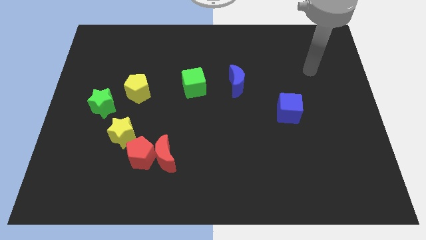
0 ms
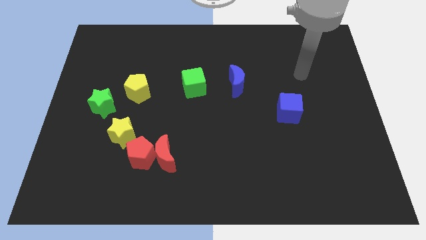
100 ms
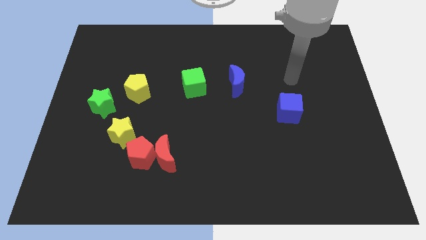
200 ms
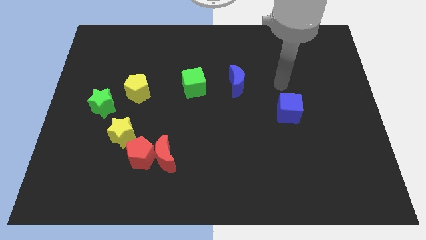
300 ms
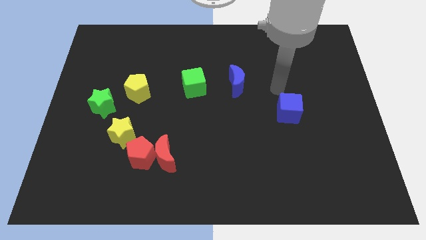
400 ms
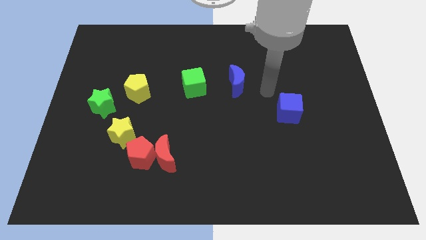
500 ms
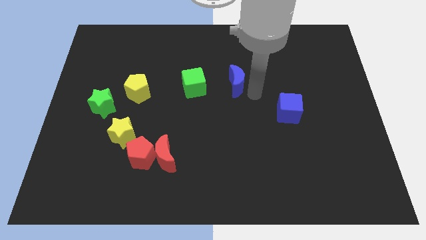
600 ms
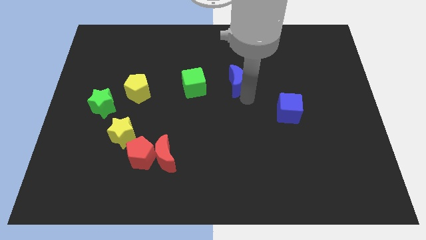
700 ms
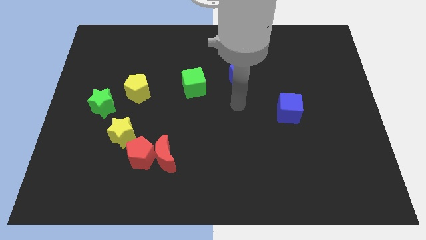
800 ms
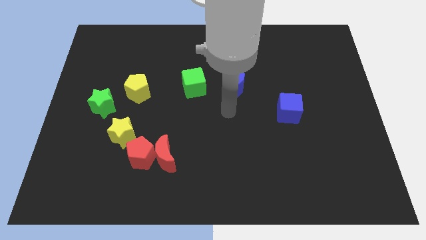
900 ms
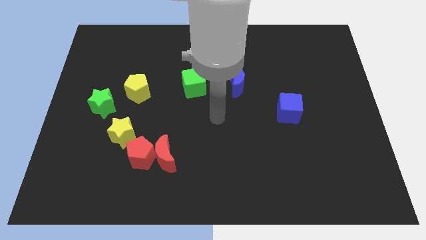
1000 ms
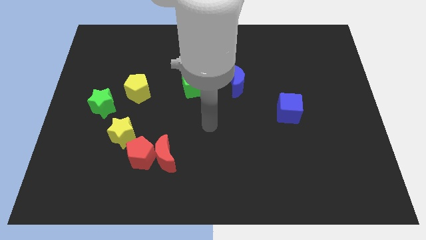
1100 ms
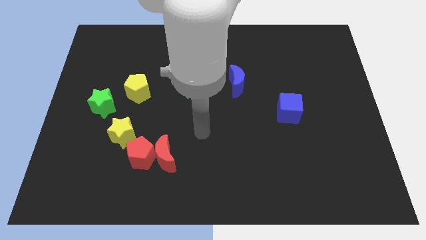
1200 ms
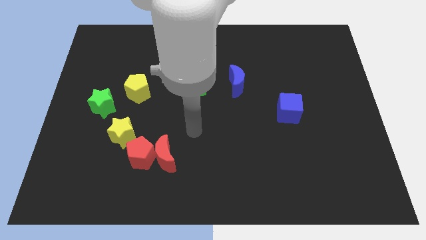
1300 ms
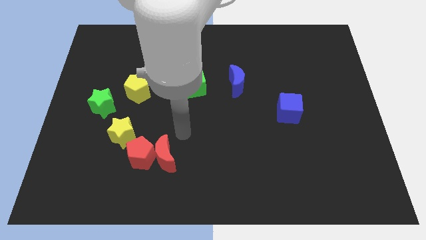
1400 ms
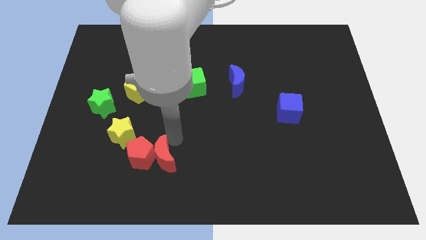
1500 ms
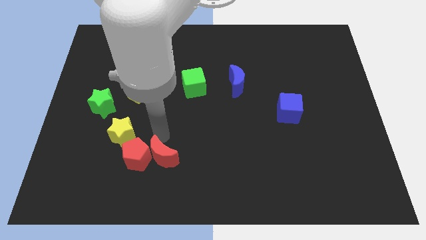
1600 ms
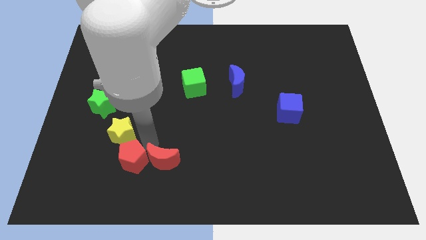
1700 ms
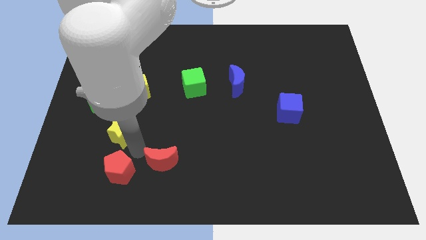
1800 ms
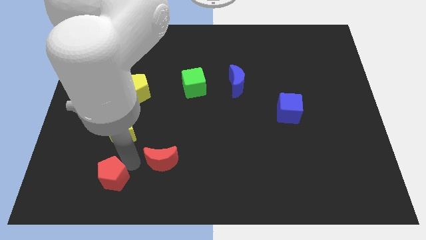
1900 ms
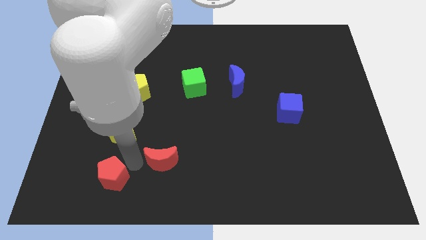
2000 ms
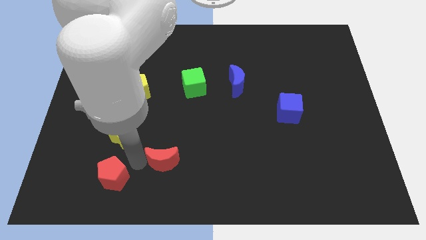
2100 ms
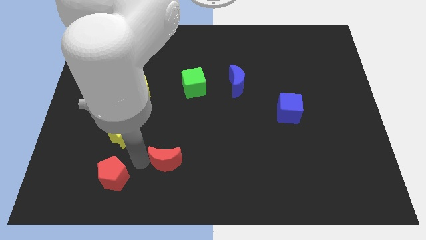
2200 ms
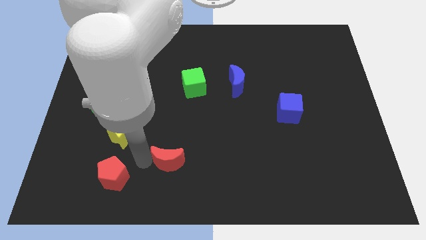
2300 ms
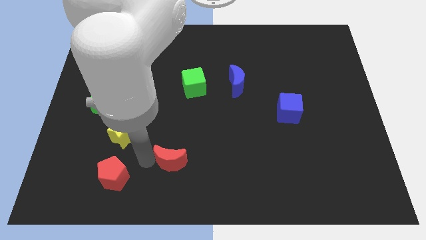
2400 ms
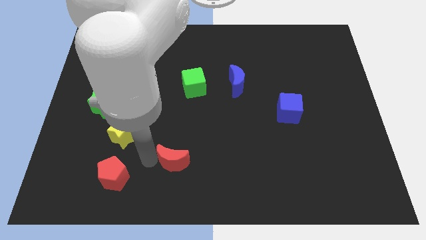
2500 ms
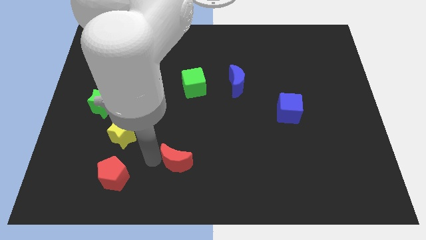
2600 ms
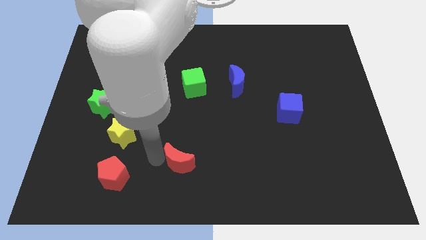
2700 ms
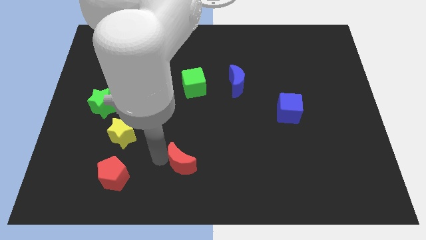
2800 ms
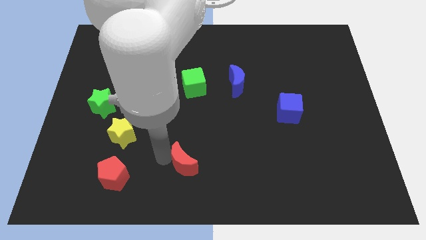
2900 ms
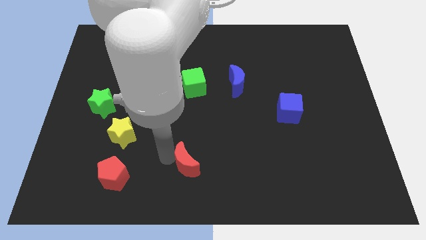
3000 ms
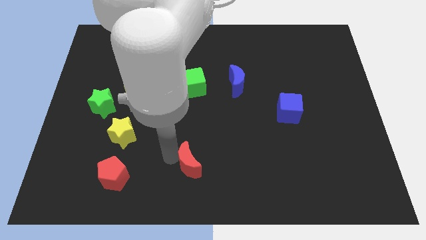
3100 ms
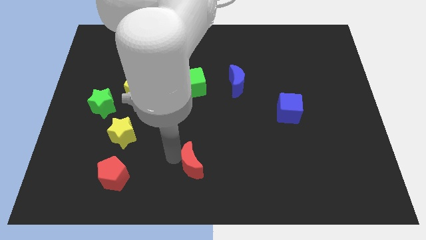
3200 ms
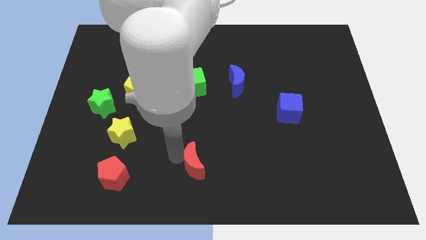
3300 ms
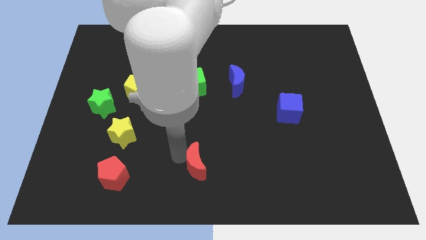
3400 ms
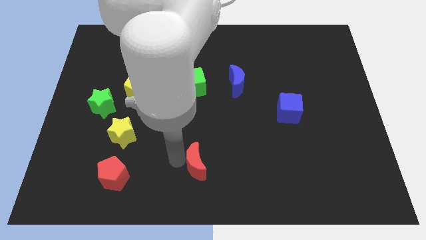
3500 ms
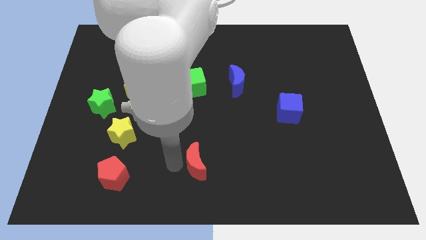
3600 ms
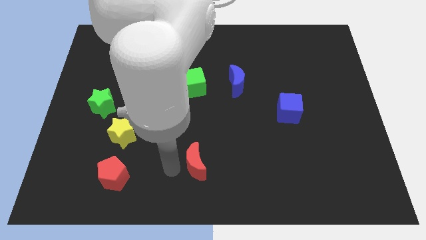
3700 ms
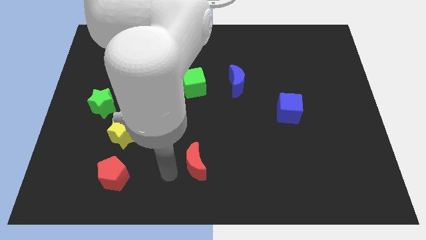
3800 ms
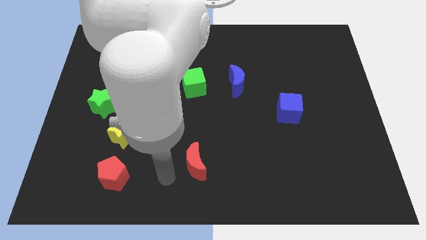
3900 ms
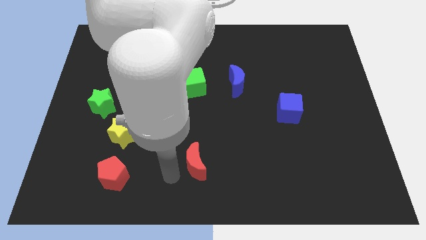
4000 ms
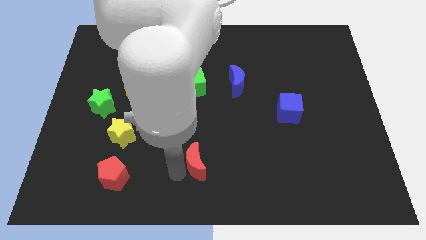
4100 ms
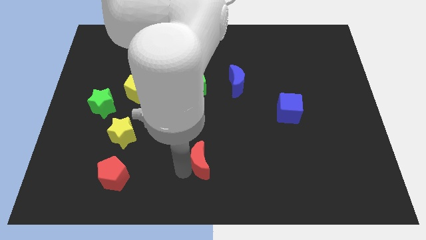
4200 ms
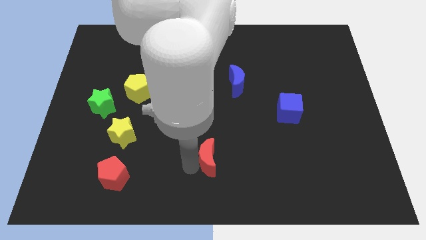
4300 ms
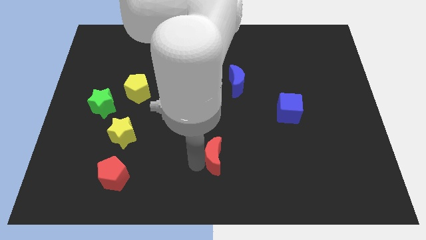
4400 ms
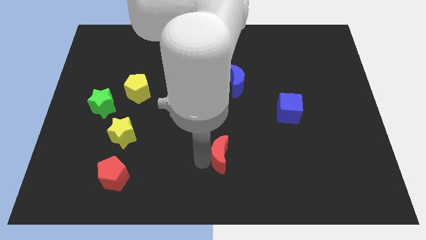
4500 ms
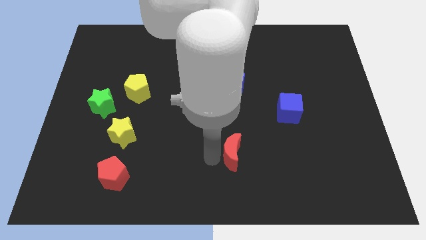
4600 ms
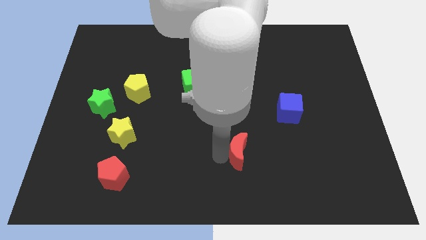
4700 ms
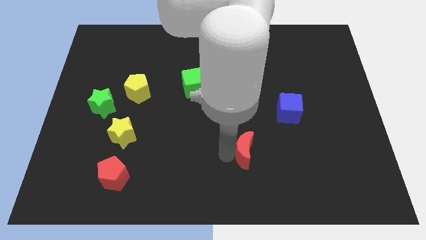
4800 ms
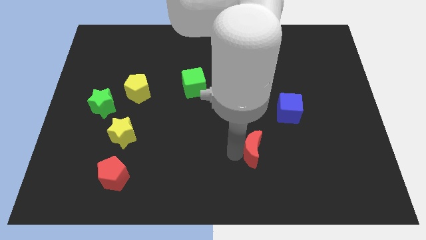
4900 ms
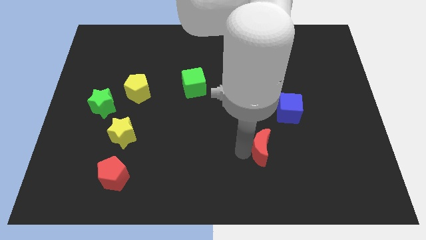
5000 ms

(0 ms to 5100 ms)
push the red moon to the right

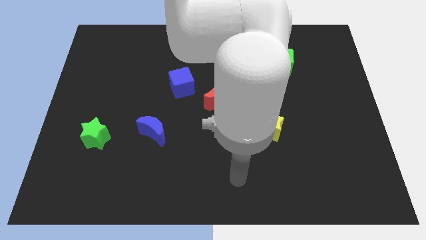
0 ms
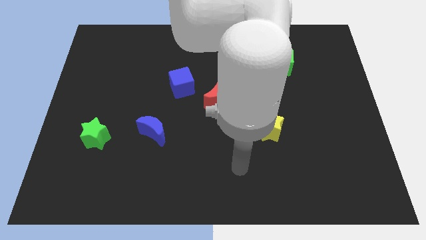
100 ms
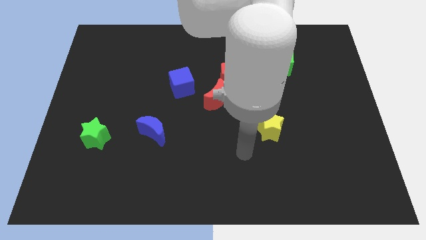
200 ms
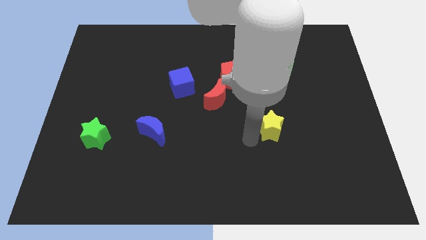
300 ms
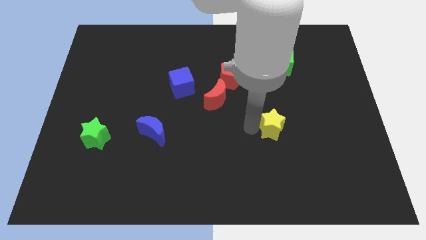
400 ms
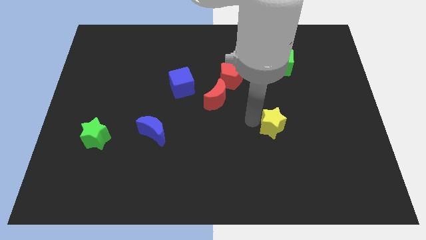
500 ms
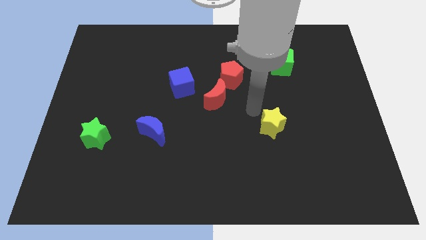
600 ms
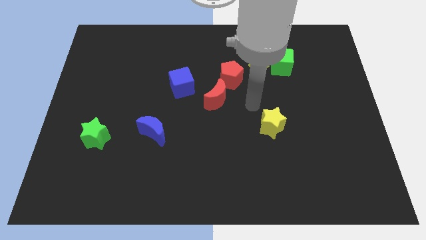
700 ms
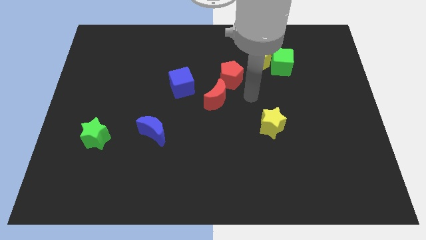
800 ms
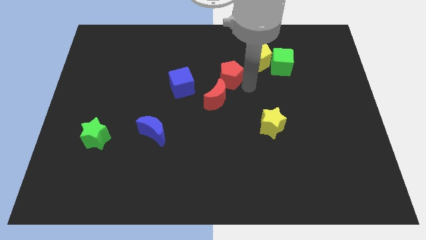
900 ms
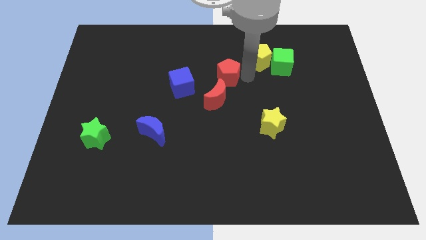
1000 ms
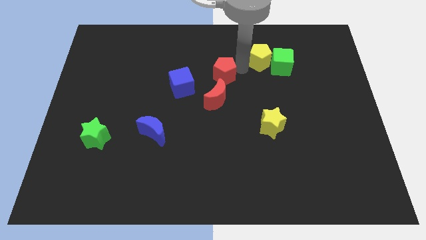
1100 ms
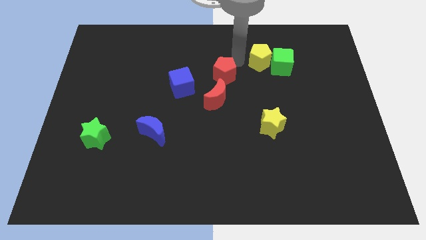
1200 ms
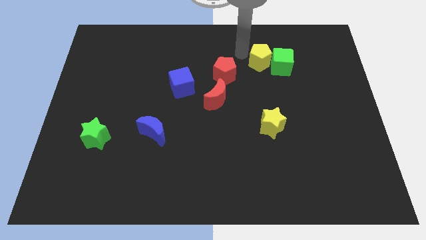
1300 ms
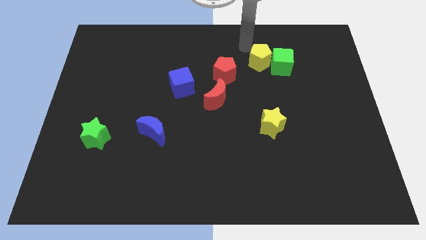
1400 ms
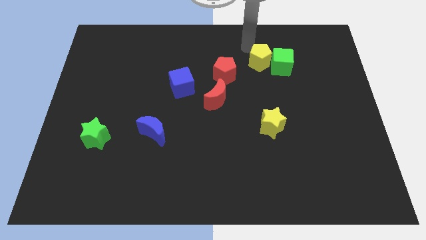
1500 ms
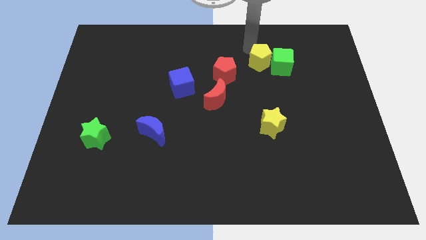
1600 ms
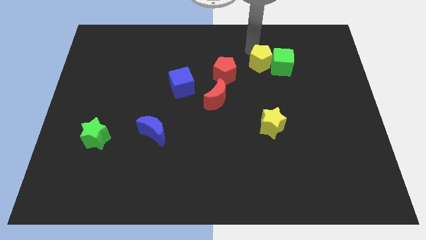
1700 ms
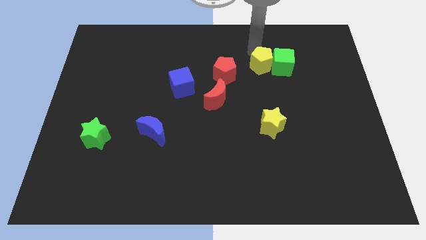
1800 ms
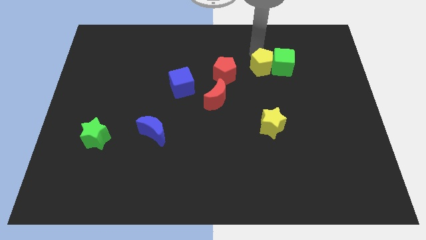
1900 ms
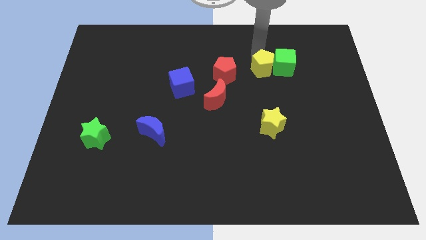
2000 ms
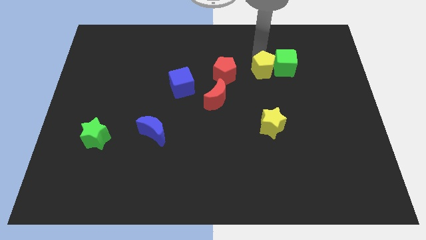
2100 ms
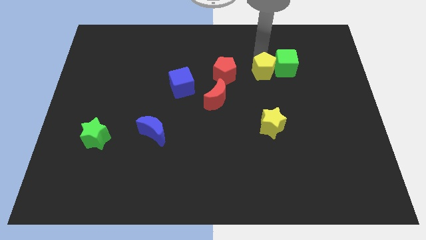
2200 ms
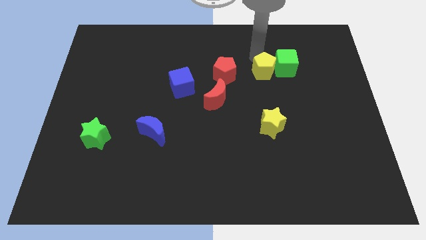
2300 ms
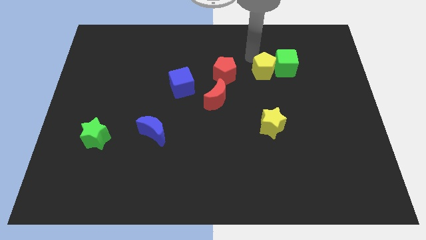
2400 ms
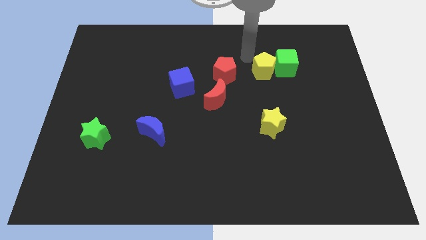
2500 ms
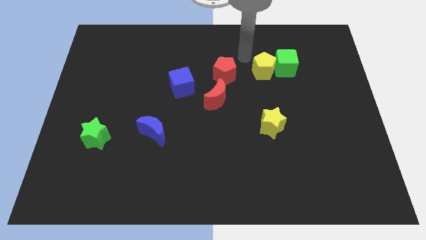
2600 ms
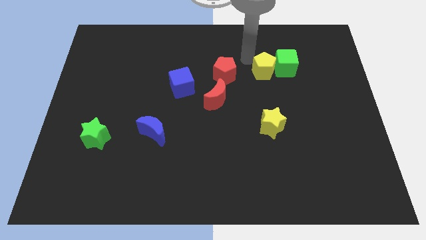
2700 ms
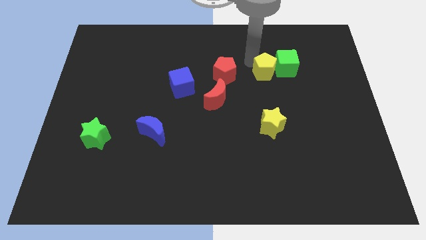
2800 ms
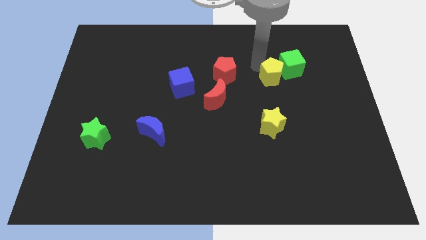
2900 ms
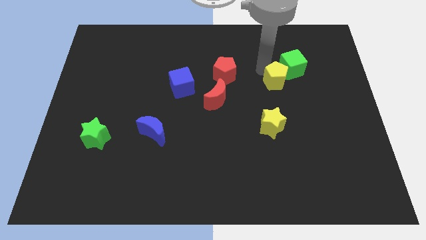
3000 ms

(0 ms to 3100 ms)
slightly push the yellow pentagon down and right diagonally
